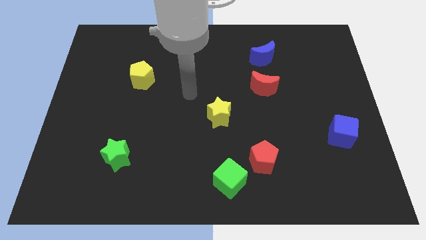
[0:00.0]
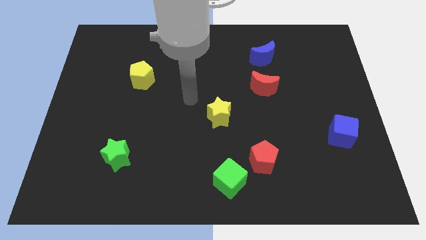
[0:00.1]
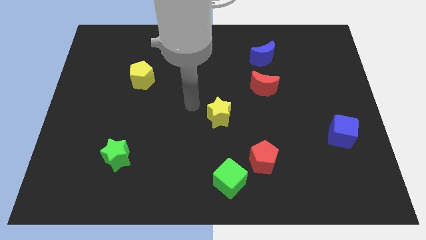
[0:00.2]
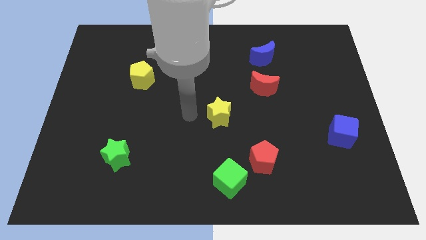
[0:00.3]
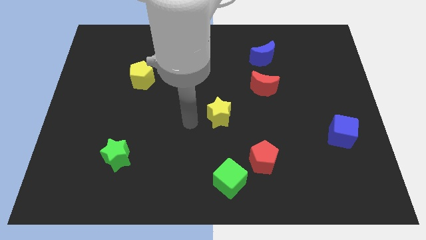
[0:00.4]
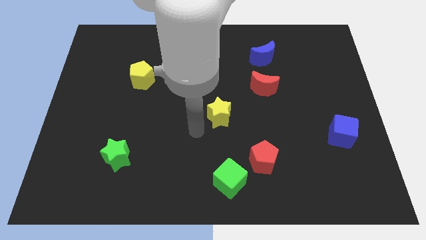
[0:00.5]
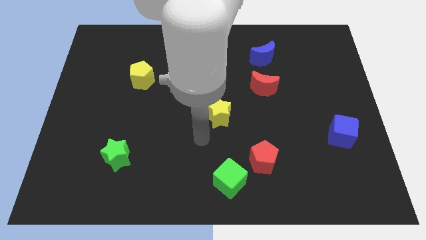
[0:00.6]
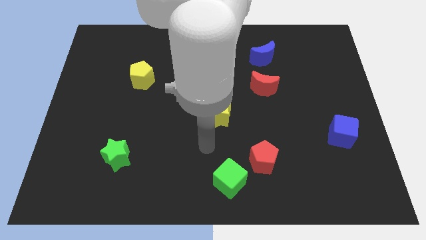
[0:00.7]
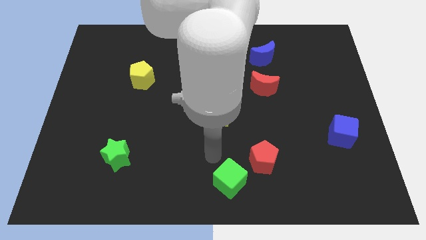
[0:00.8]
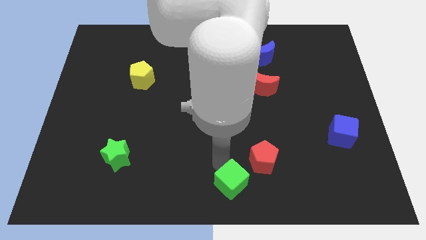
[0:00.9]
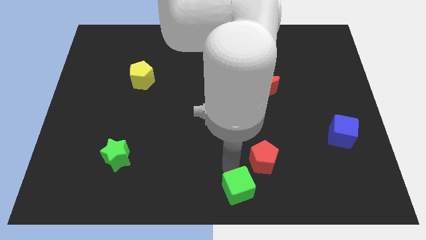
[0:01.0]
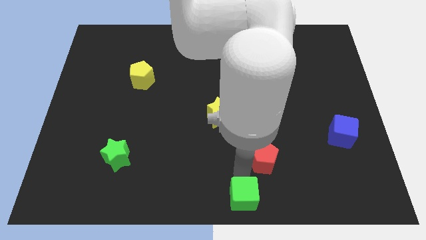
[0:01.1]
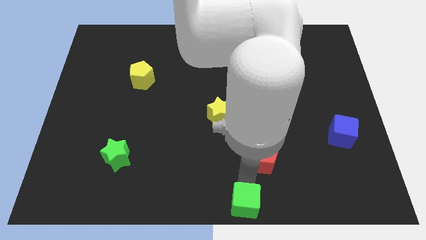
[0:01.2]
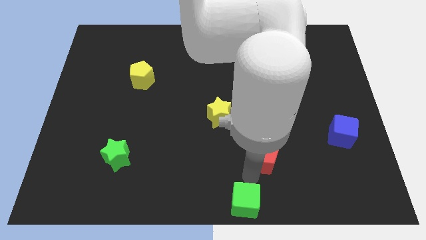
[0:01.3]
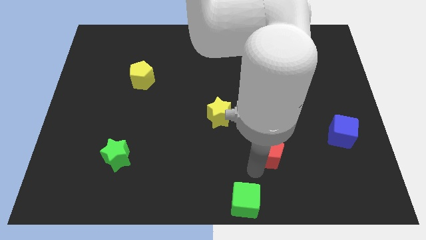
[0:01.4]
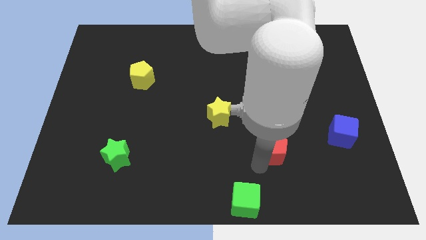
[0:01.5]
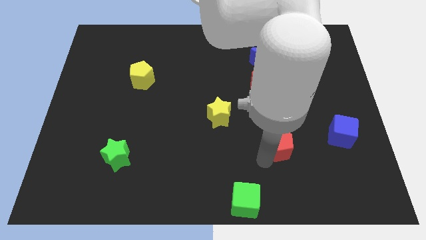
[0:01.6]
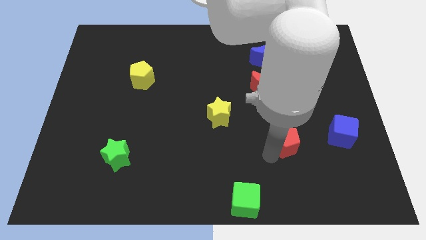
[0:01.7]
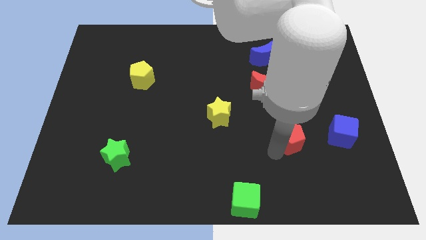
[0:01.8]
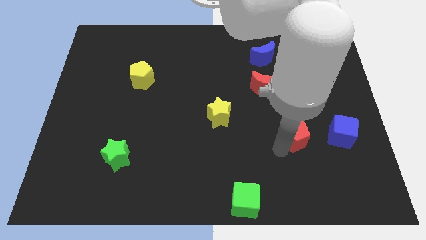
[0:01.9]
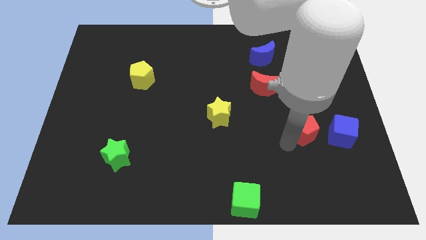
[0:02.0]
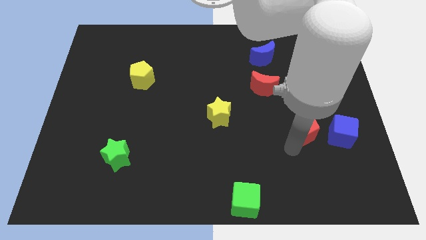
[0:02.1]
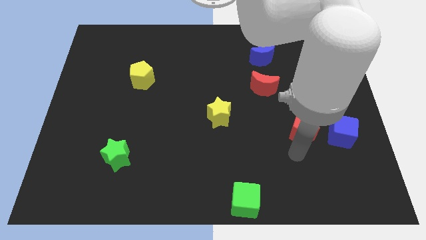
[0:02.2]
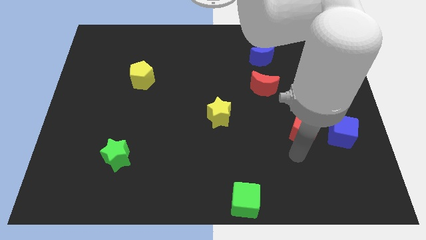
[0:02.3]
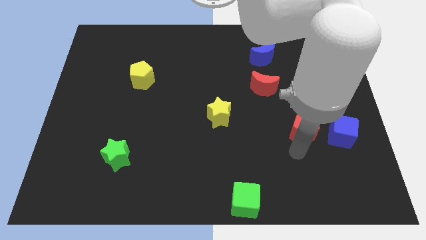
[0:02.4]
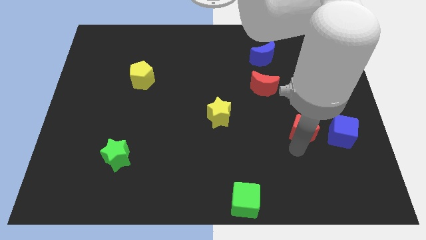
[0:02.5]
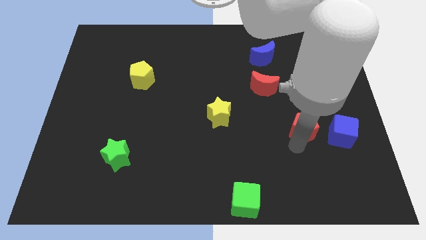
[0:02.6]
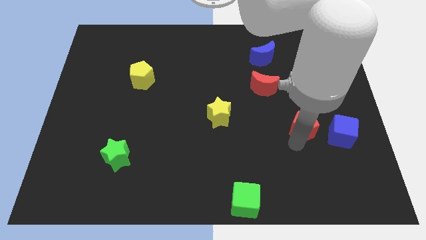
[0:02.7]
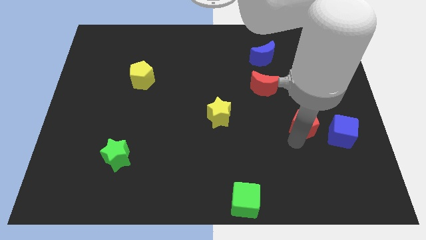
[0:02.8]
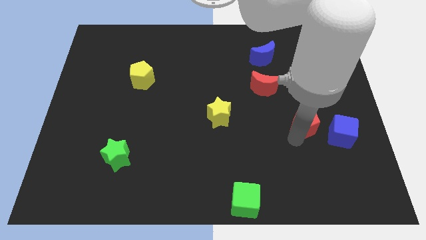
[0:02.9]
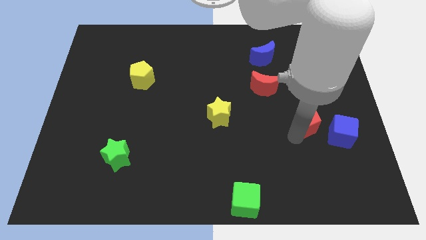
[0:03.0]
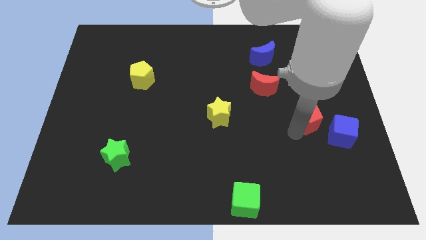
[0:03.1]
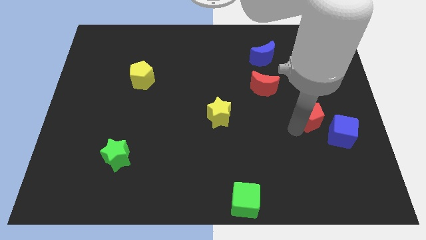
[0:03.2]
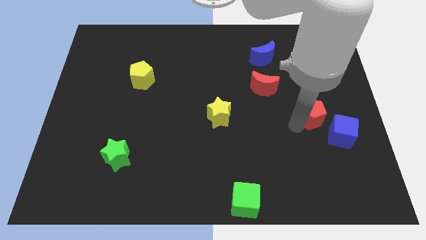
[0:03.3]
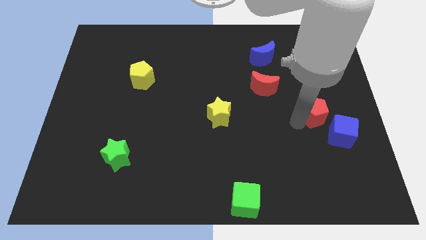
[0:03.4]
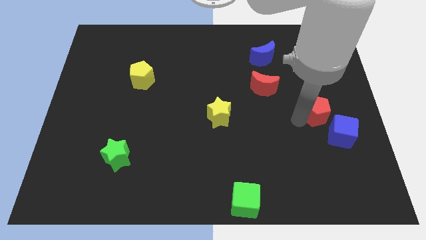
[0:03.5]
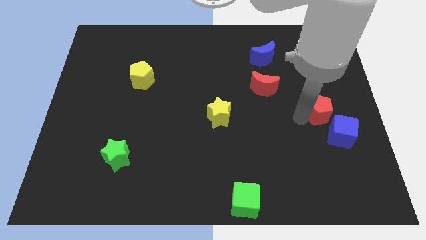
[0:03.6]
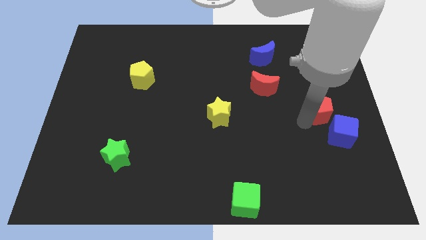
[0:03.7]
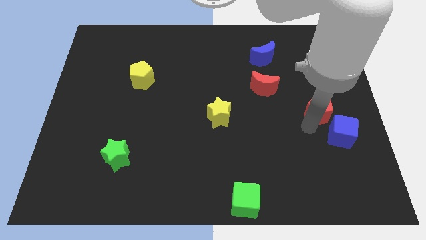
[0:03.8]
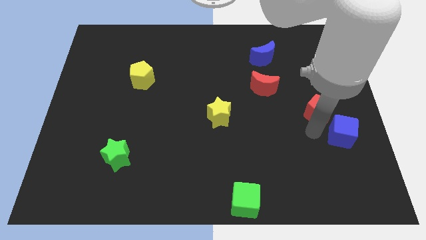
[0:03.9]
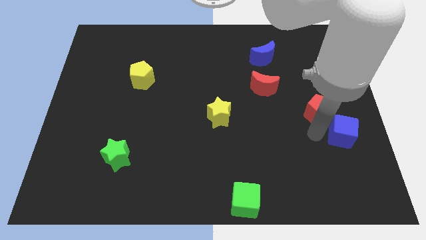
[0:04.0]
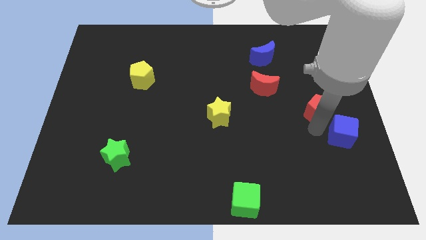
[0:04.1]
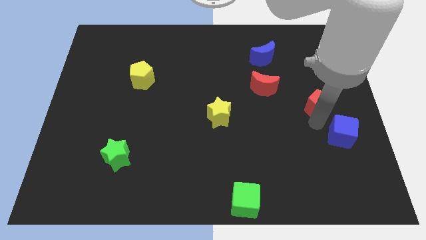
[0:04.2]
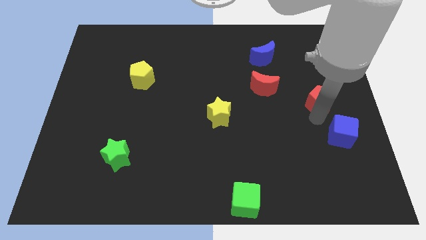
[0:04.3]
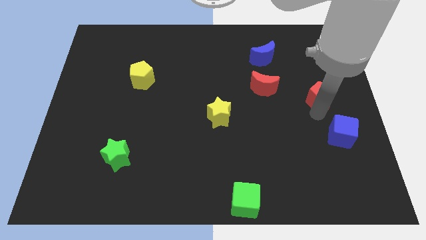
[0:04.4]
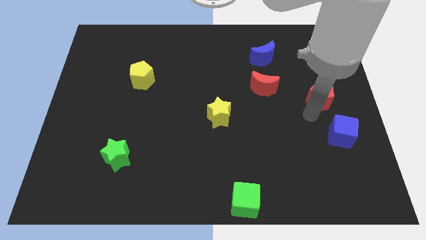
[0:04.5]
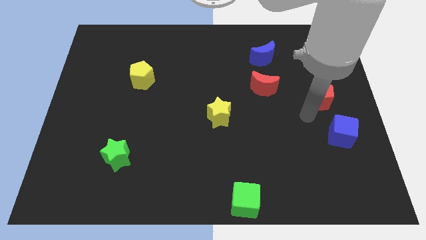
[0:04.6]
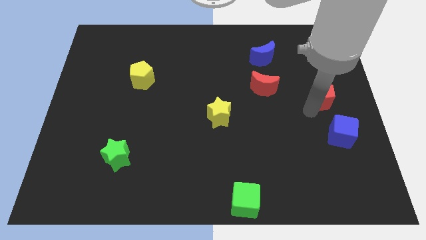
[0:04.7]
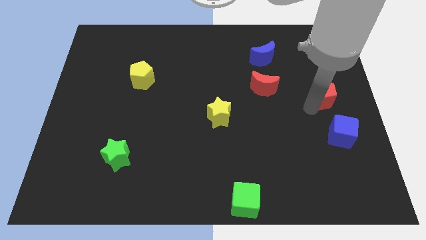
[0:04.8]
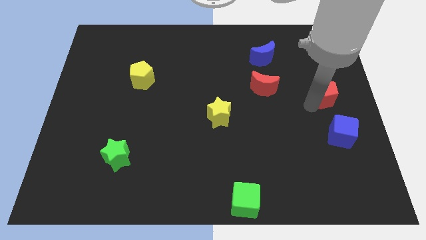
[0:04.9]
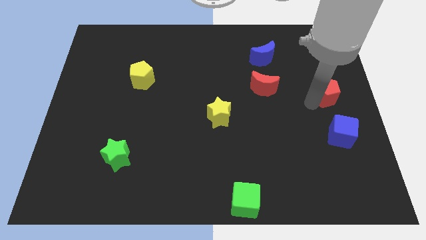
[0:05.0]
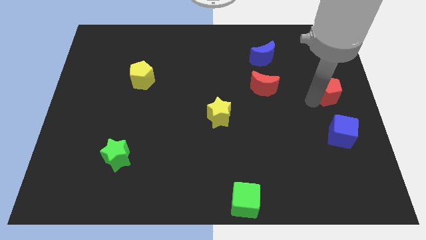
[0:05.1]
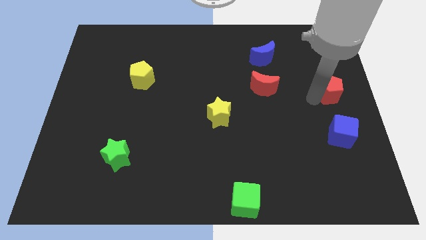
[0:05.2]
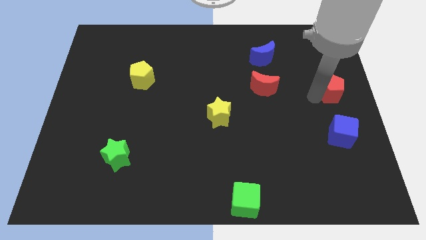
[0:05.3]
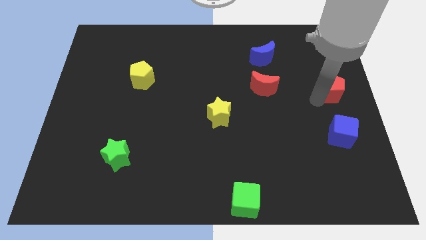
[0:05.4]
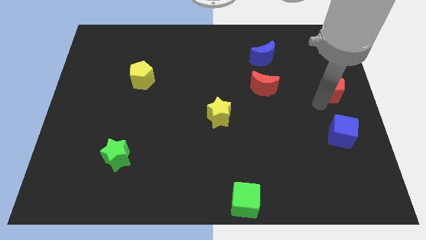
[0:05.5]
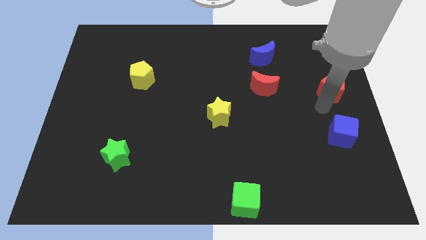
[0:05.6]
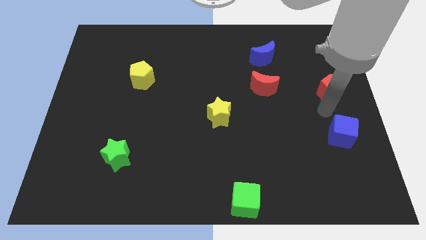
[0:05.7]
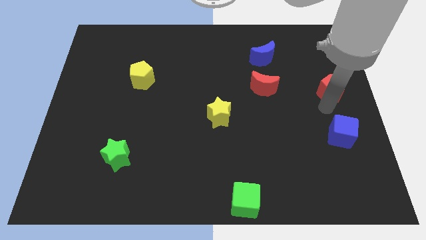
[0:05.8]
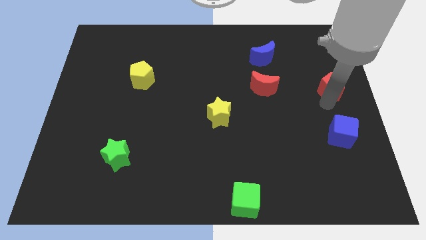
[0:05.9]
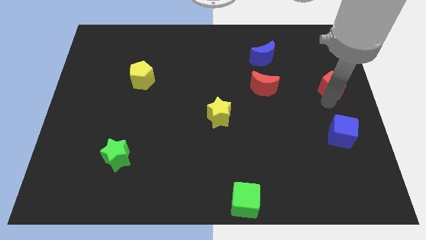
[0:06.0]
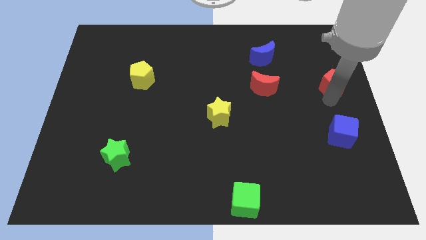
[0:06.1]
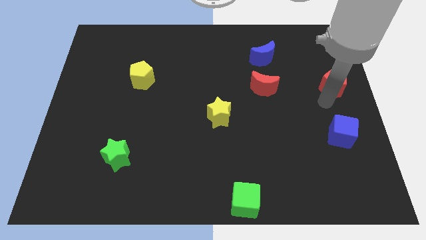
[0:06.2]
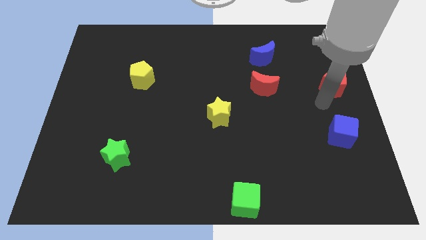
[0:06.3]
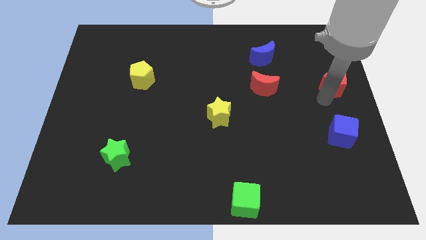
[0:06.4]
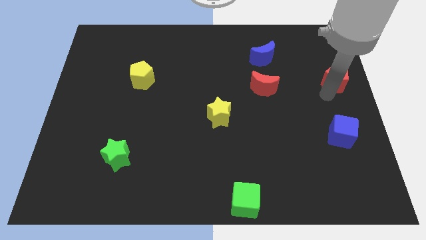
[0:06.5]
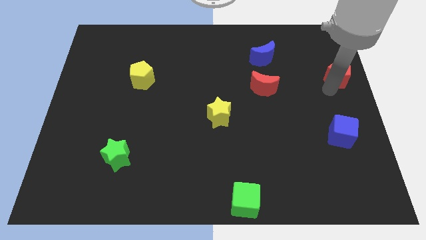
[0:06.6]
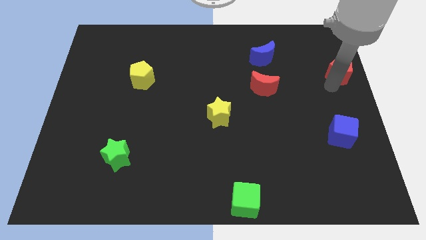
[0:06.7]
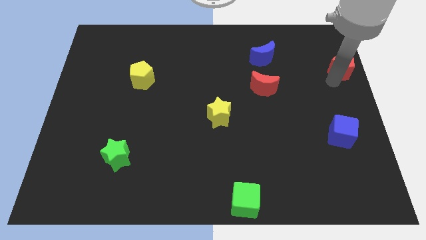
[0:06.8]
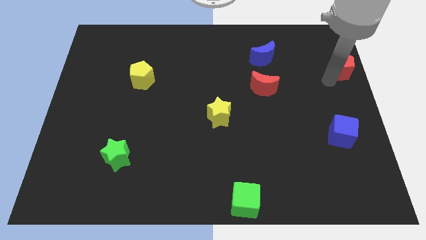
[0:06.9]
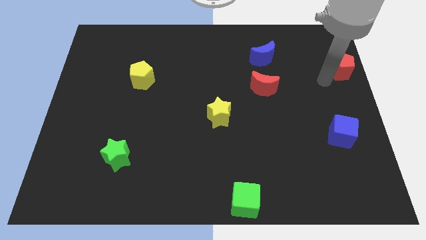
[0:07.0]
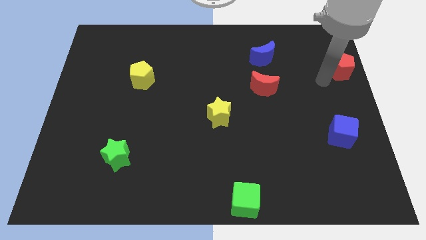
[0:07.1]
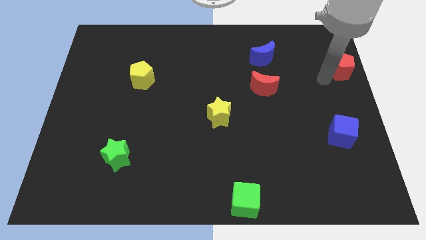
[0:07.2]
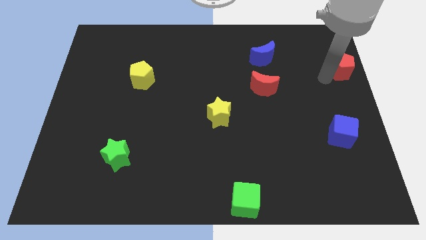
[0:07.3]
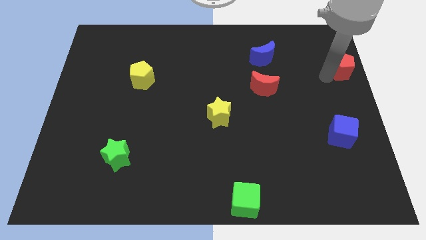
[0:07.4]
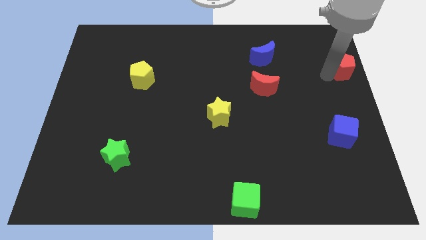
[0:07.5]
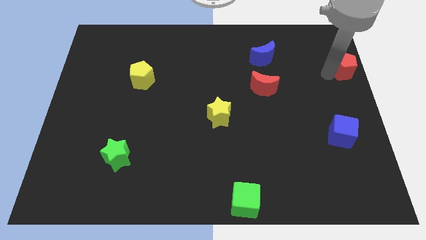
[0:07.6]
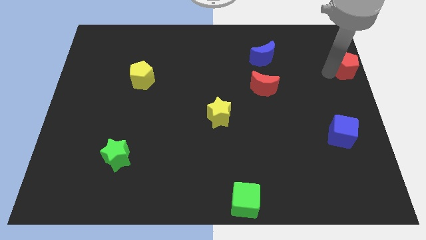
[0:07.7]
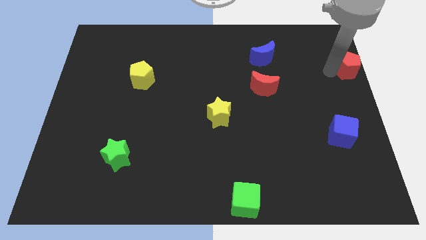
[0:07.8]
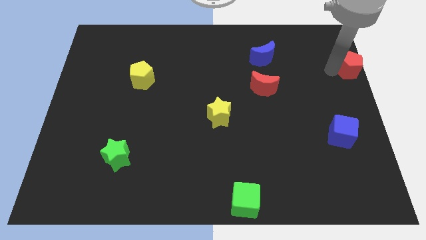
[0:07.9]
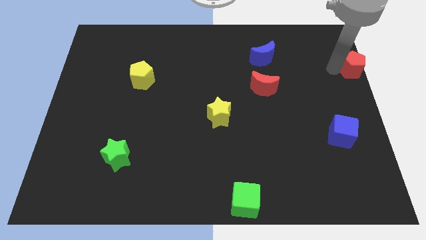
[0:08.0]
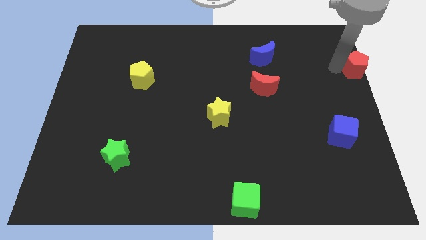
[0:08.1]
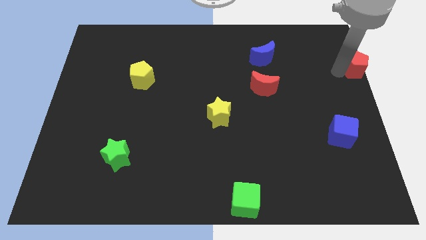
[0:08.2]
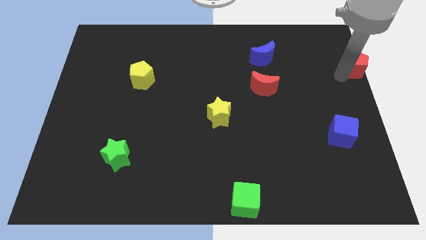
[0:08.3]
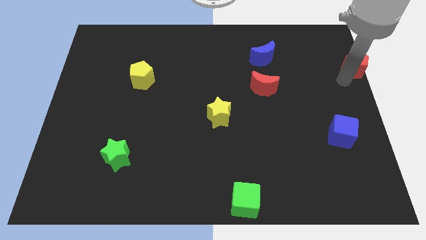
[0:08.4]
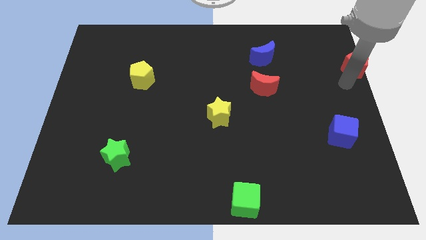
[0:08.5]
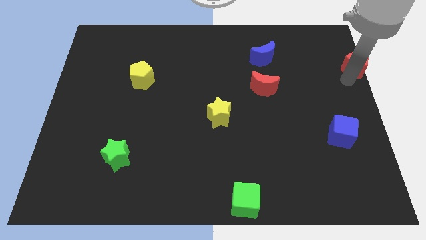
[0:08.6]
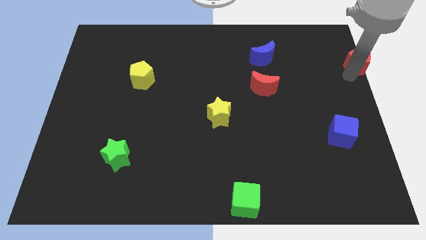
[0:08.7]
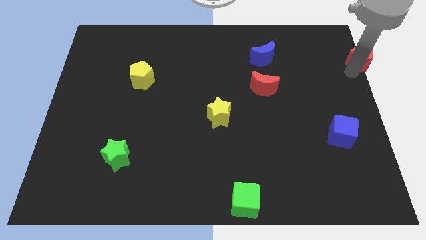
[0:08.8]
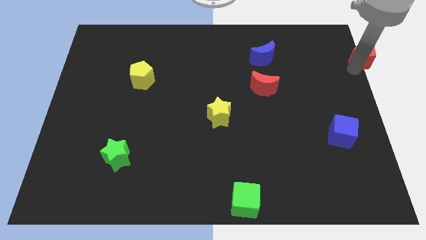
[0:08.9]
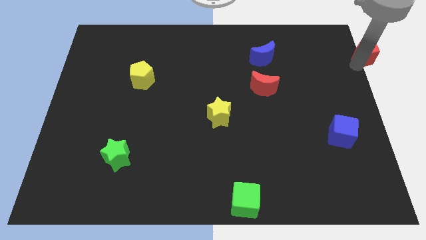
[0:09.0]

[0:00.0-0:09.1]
move the red pentagon to the upper right corner
